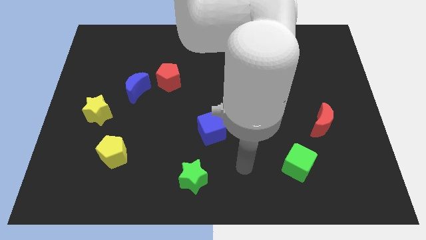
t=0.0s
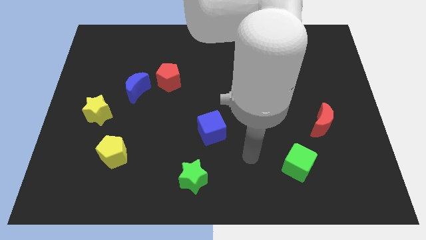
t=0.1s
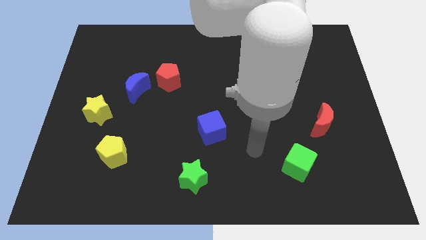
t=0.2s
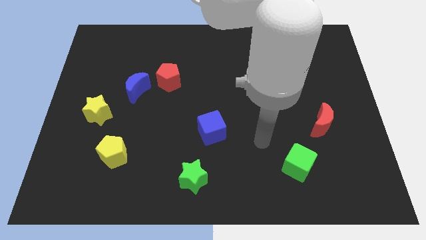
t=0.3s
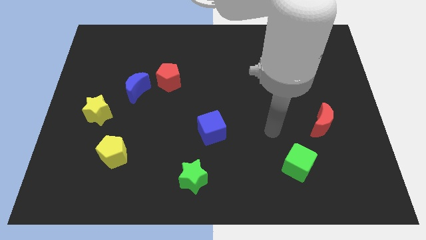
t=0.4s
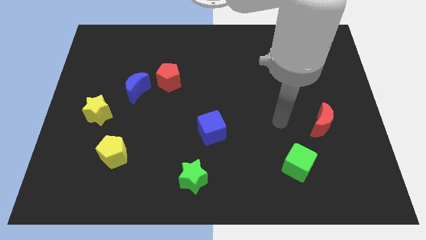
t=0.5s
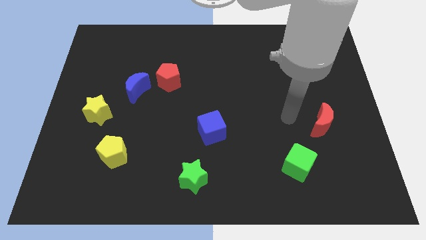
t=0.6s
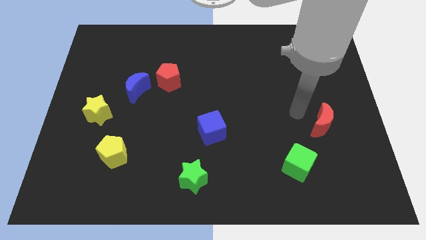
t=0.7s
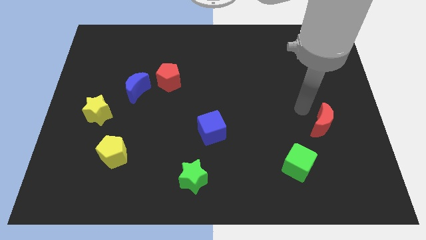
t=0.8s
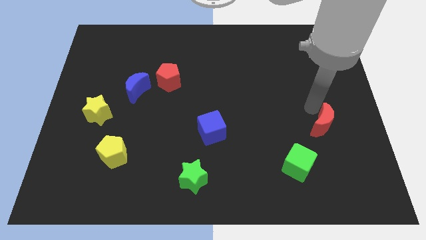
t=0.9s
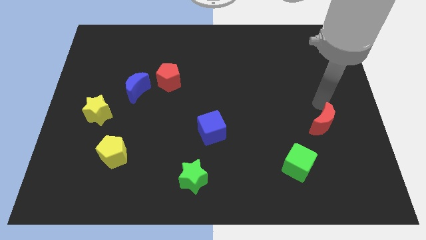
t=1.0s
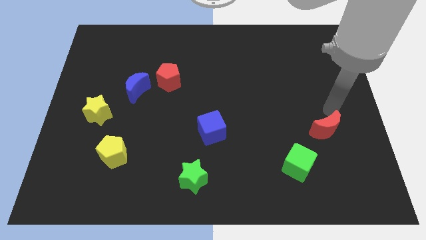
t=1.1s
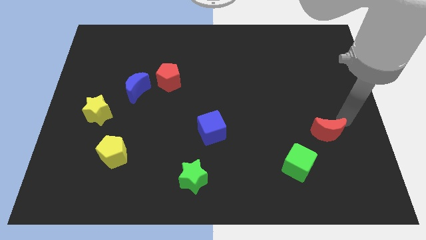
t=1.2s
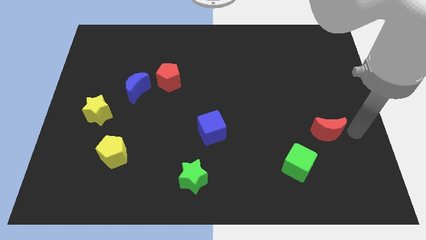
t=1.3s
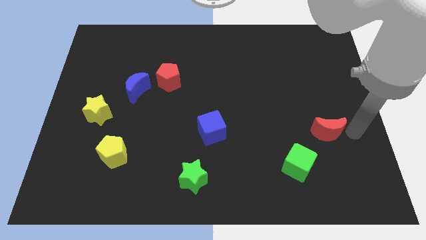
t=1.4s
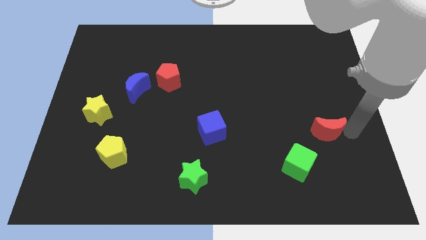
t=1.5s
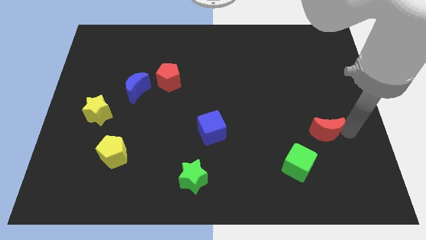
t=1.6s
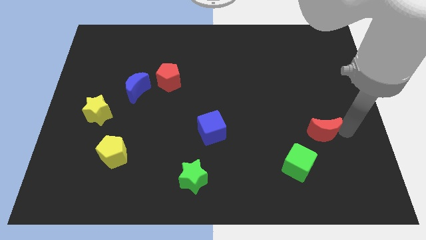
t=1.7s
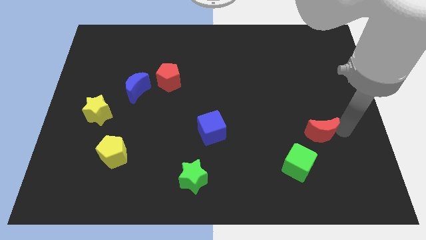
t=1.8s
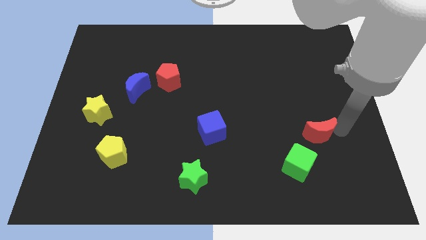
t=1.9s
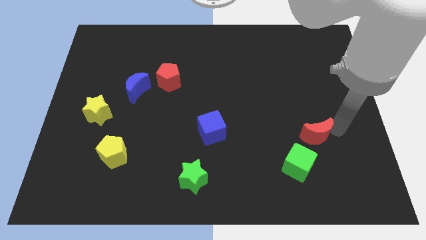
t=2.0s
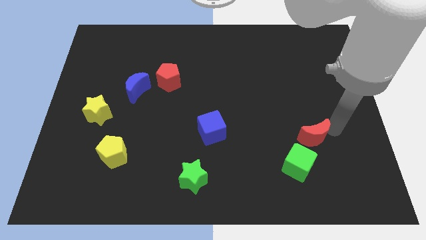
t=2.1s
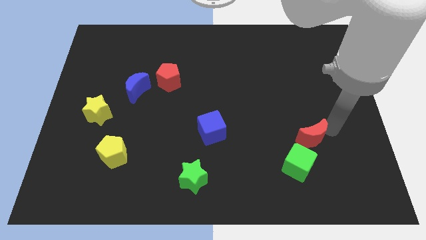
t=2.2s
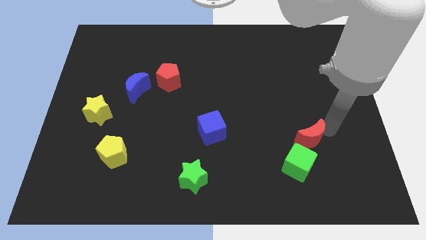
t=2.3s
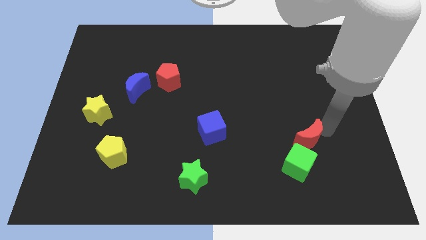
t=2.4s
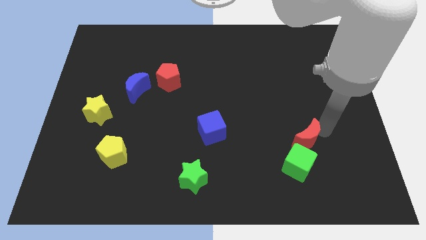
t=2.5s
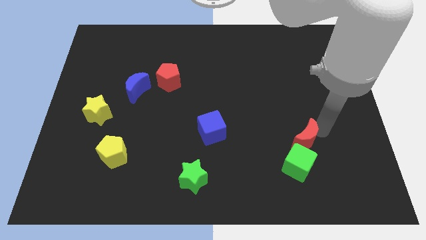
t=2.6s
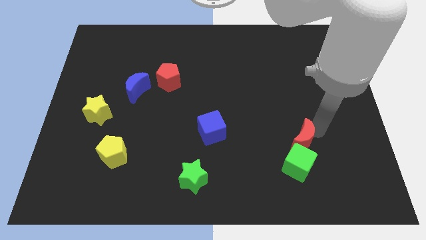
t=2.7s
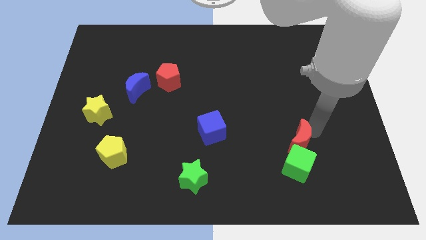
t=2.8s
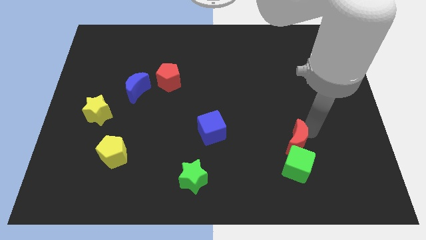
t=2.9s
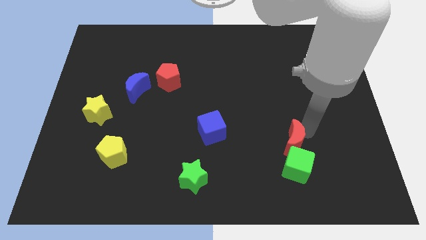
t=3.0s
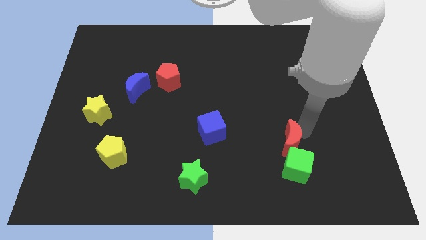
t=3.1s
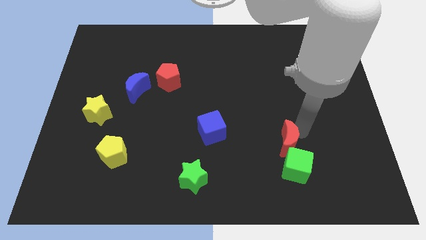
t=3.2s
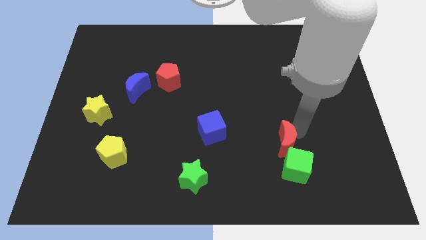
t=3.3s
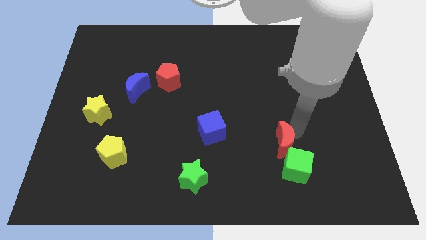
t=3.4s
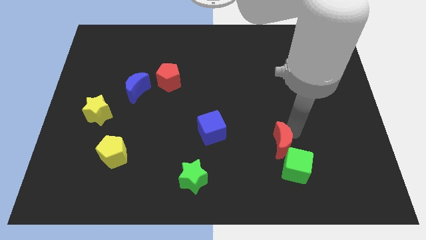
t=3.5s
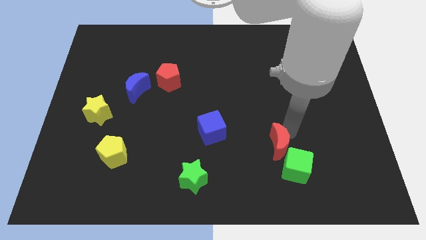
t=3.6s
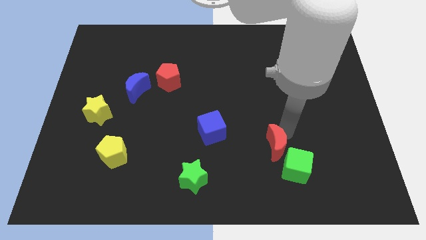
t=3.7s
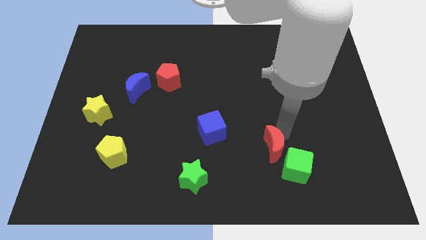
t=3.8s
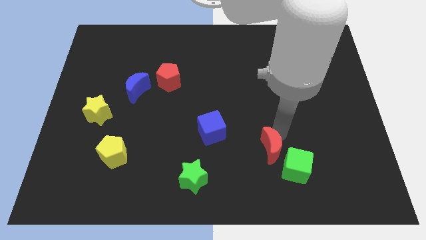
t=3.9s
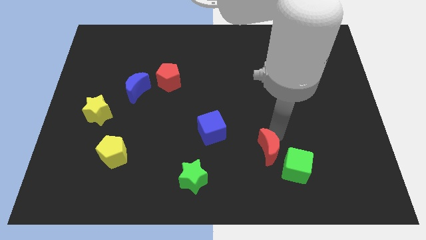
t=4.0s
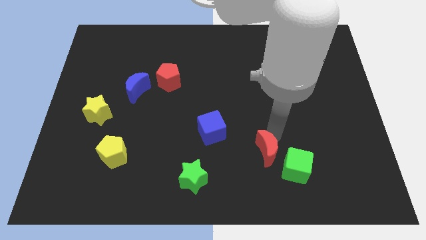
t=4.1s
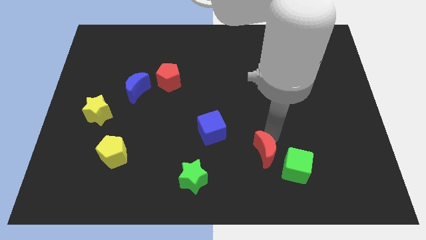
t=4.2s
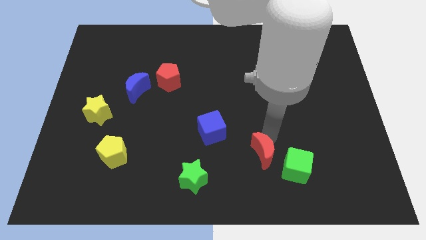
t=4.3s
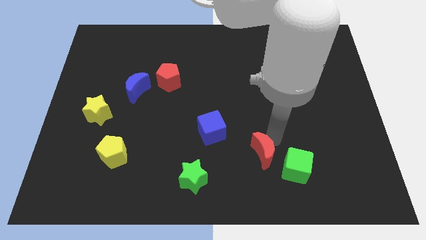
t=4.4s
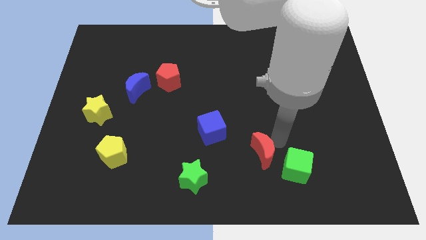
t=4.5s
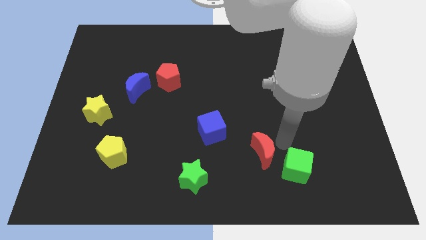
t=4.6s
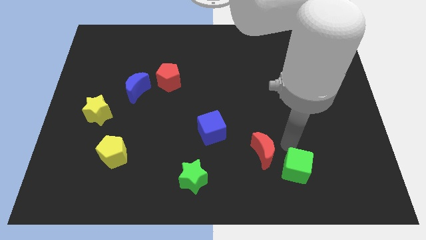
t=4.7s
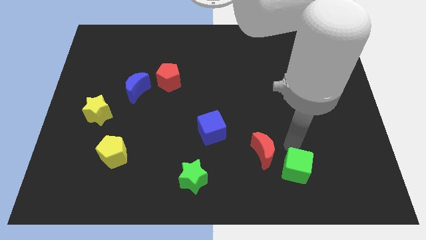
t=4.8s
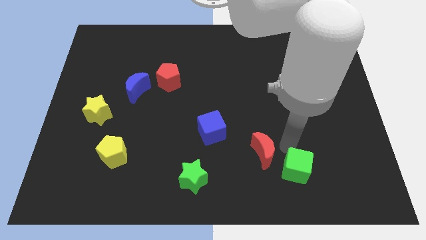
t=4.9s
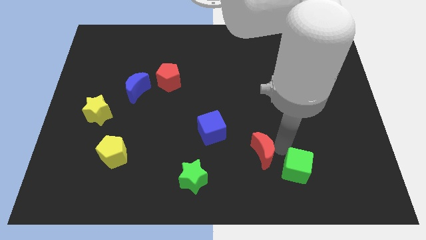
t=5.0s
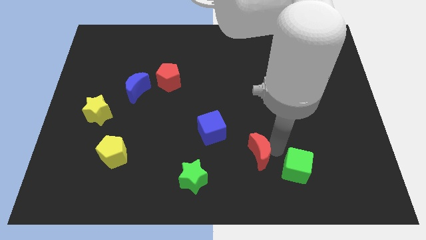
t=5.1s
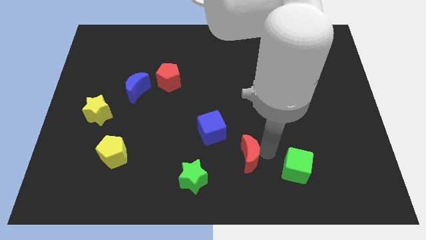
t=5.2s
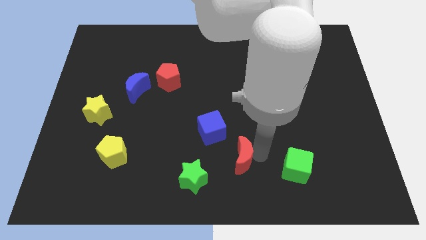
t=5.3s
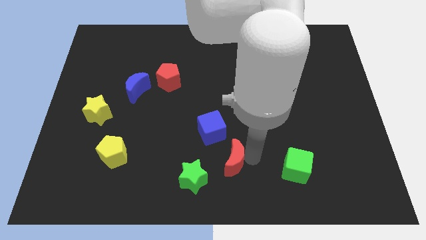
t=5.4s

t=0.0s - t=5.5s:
slide the red moon to the top right side of the green star

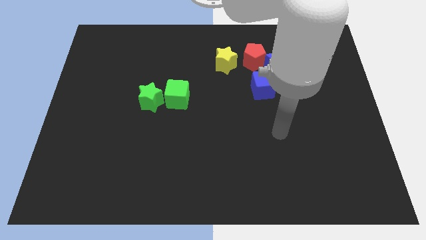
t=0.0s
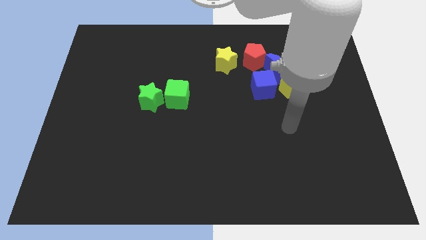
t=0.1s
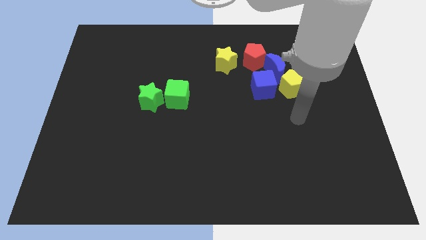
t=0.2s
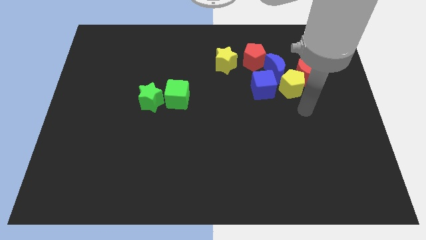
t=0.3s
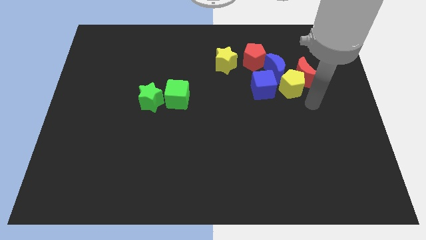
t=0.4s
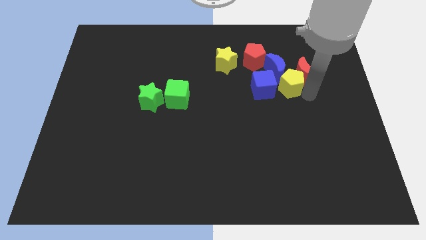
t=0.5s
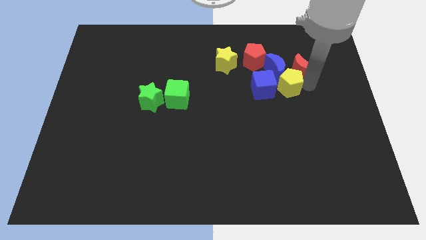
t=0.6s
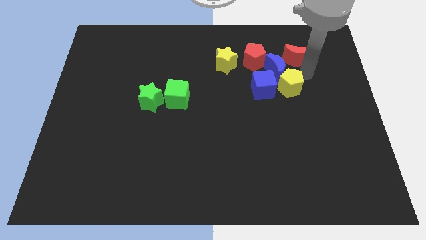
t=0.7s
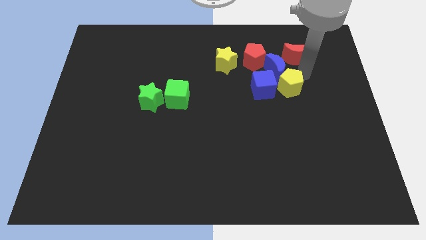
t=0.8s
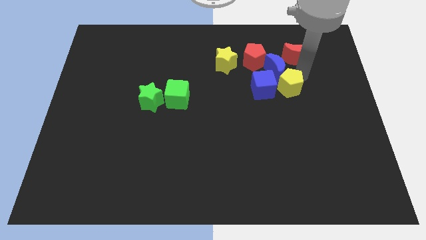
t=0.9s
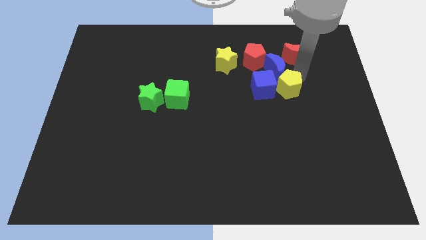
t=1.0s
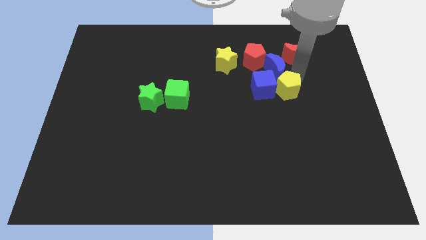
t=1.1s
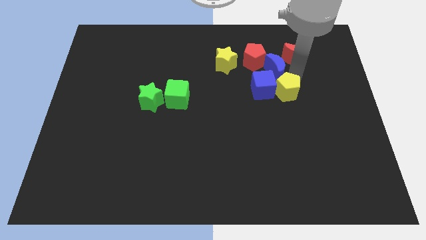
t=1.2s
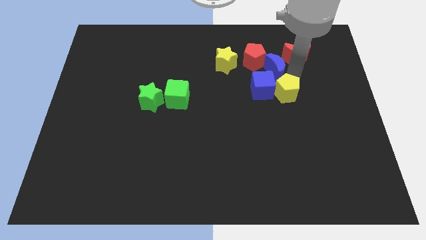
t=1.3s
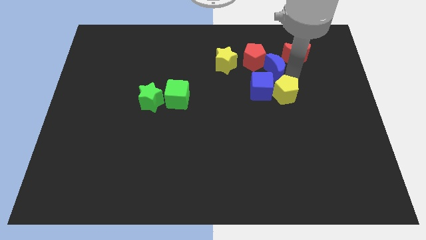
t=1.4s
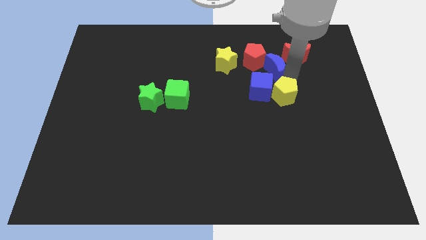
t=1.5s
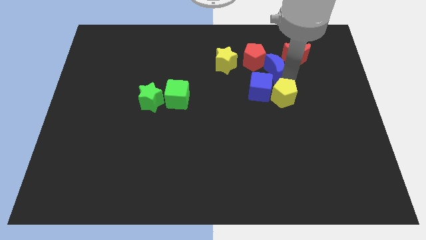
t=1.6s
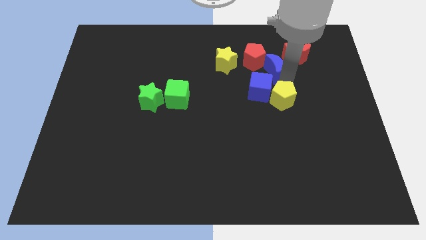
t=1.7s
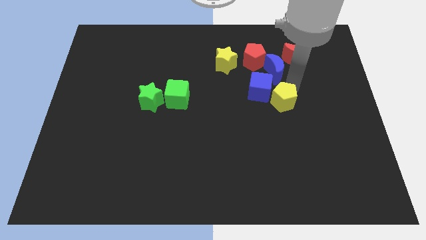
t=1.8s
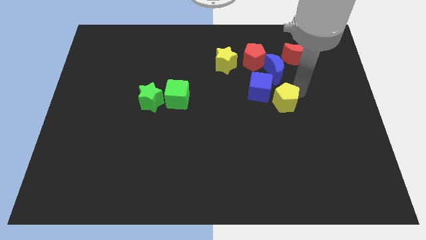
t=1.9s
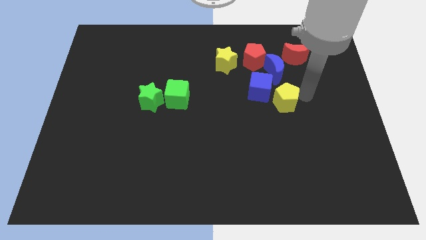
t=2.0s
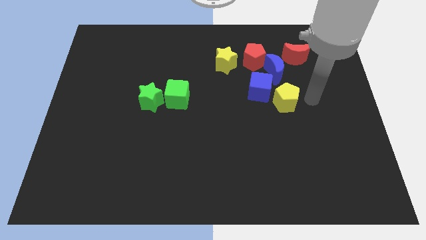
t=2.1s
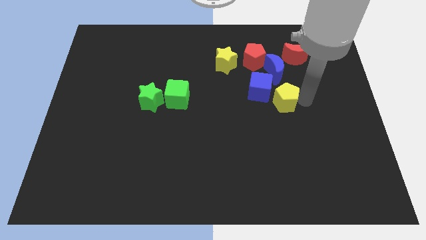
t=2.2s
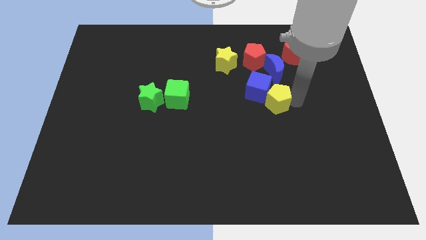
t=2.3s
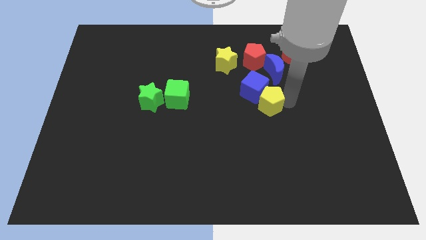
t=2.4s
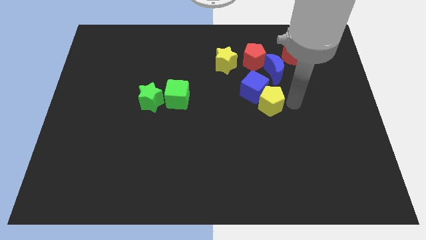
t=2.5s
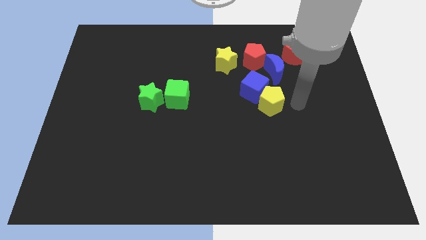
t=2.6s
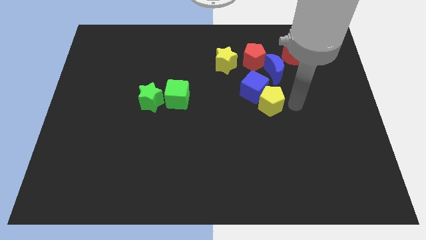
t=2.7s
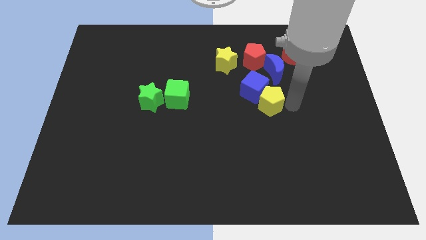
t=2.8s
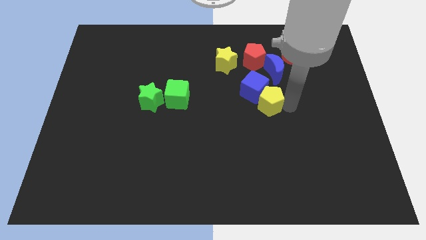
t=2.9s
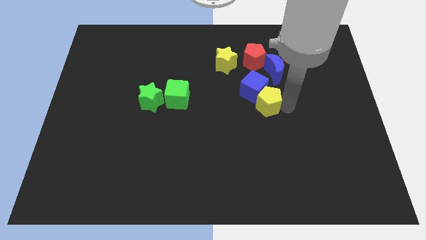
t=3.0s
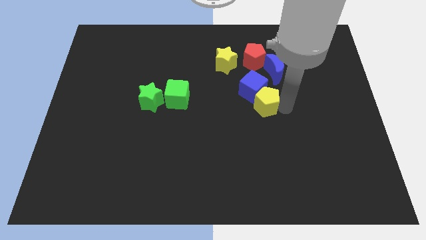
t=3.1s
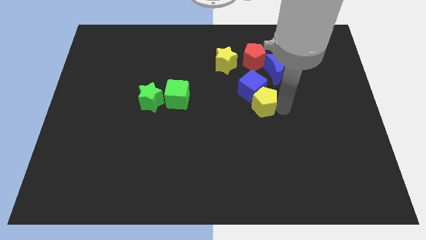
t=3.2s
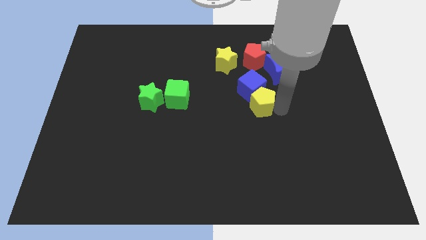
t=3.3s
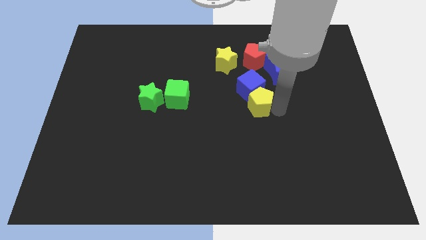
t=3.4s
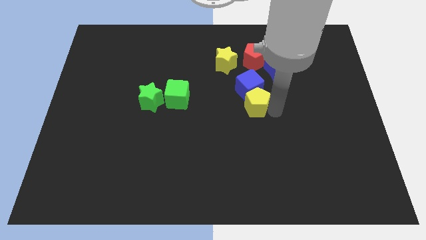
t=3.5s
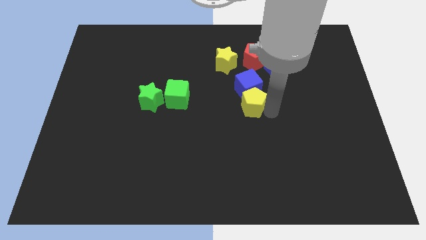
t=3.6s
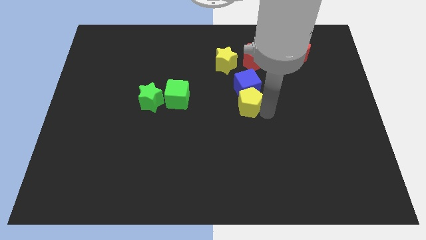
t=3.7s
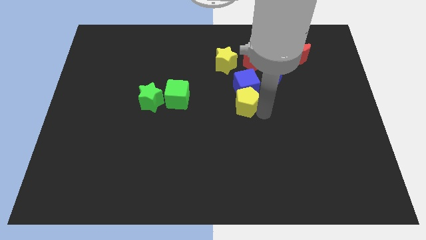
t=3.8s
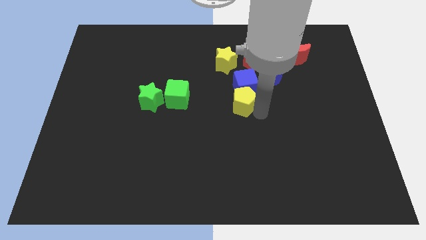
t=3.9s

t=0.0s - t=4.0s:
put the yellow pentagon just right of the green cube
